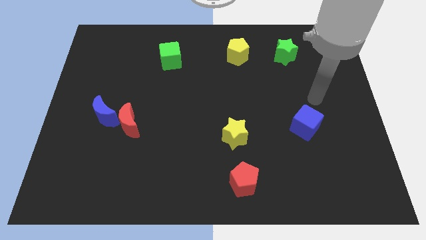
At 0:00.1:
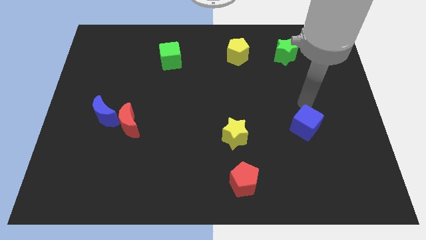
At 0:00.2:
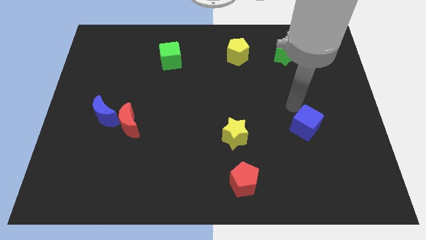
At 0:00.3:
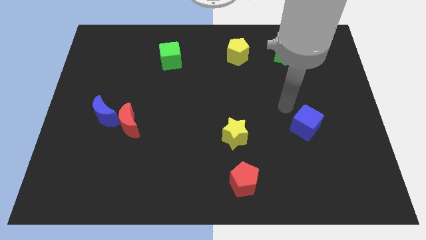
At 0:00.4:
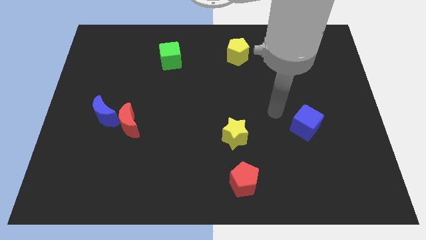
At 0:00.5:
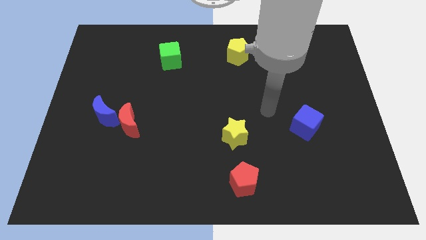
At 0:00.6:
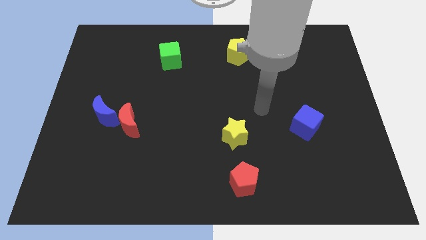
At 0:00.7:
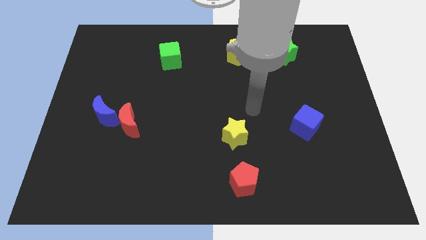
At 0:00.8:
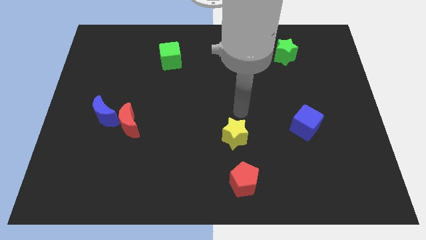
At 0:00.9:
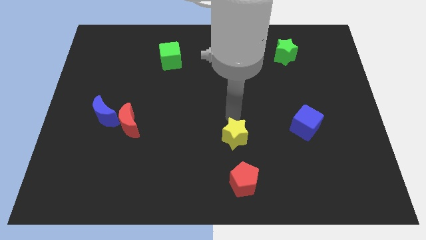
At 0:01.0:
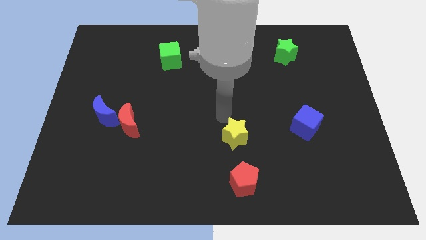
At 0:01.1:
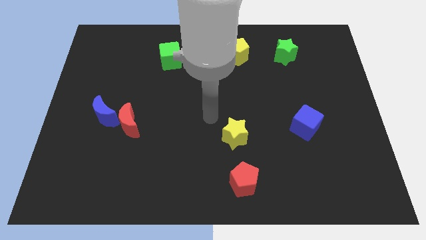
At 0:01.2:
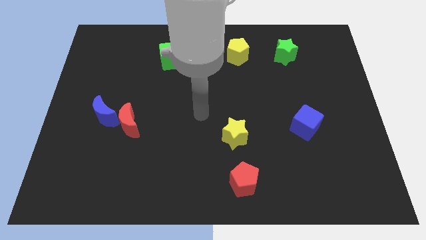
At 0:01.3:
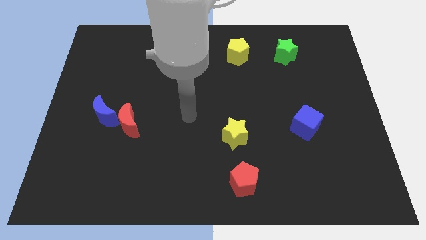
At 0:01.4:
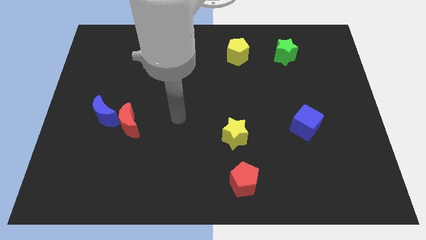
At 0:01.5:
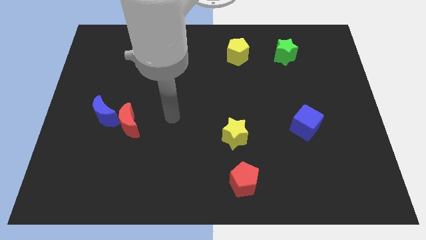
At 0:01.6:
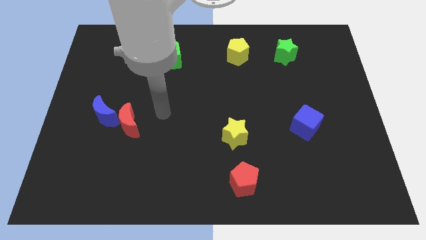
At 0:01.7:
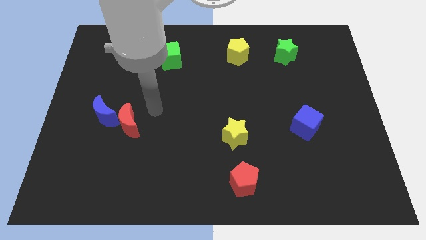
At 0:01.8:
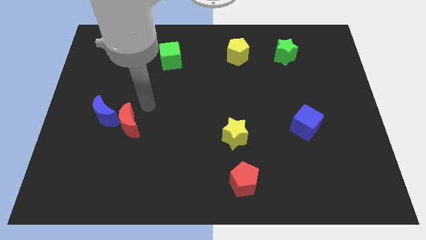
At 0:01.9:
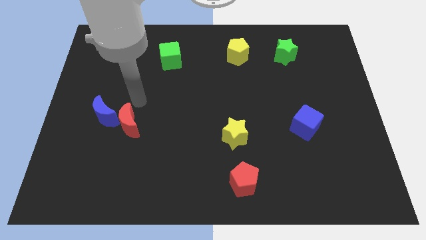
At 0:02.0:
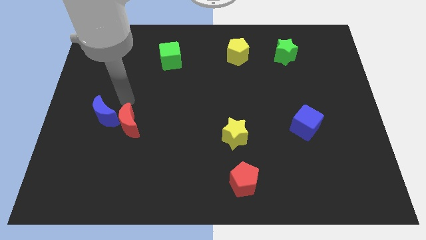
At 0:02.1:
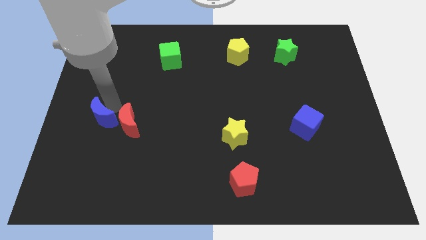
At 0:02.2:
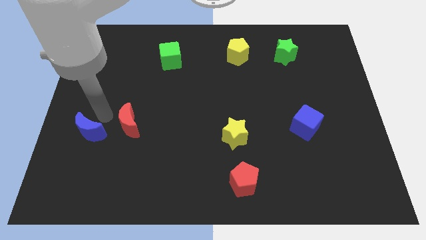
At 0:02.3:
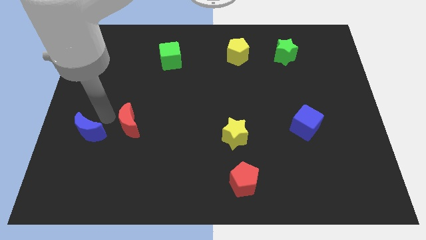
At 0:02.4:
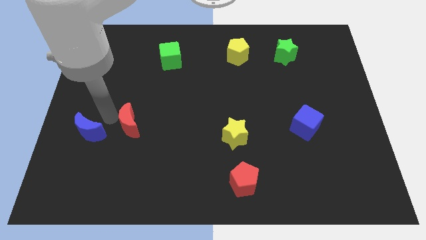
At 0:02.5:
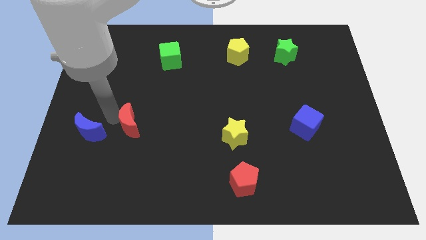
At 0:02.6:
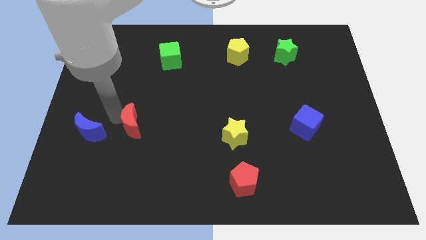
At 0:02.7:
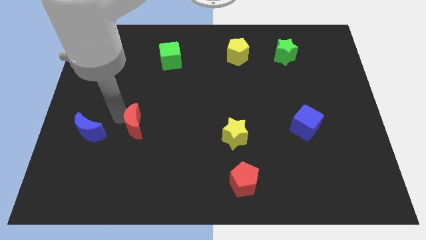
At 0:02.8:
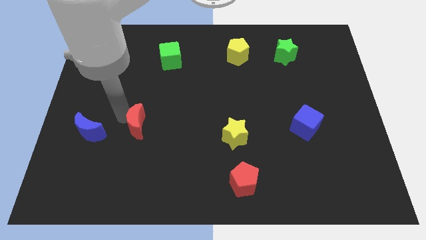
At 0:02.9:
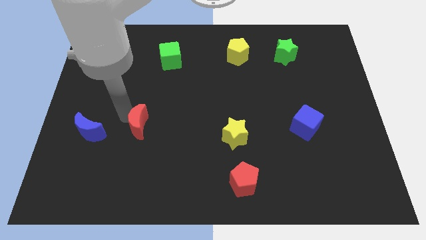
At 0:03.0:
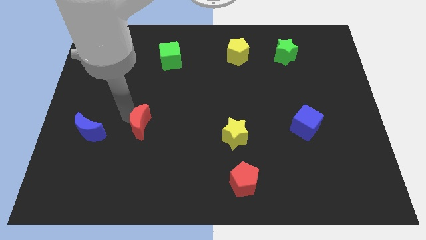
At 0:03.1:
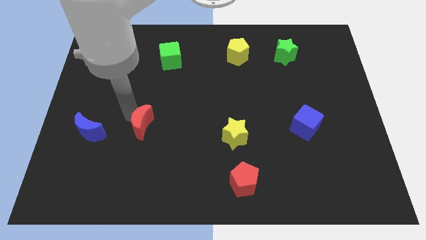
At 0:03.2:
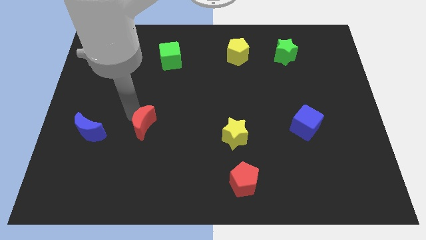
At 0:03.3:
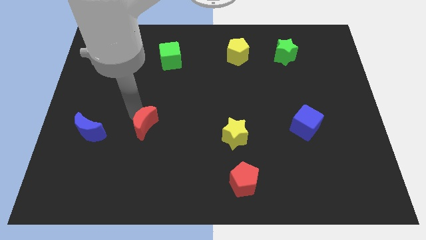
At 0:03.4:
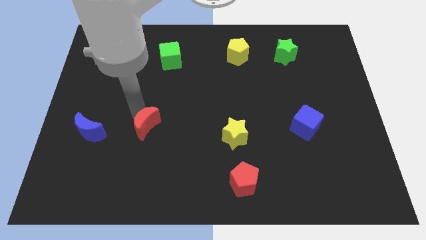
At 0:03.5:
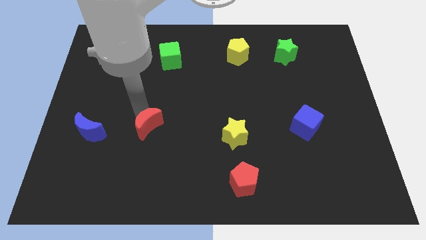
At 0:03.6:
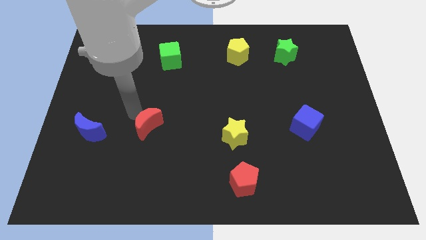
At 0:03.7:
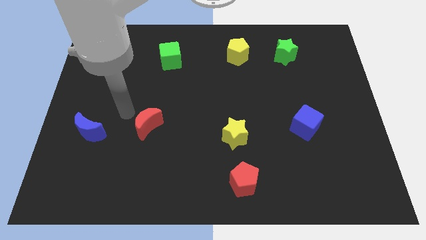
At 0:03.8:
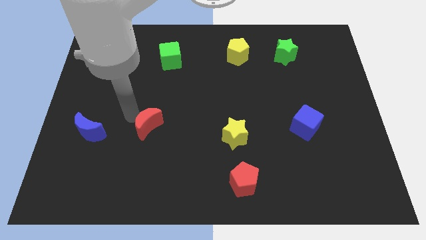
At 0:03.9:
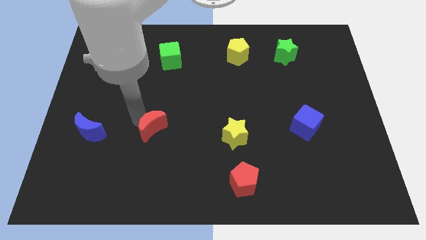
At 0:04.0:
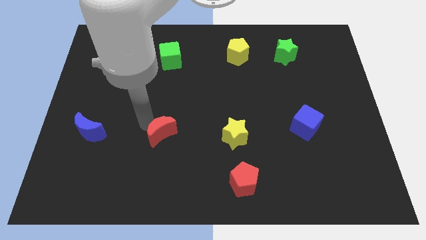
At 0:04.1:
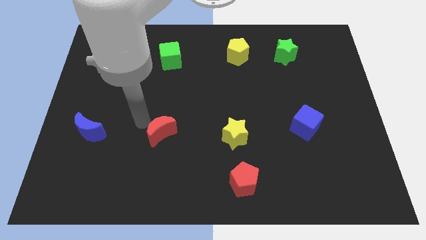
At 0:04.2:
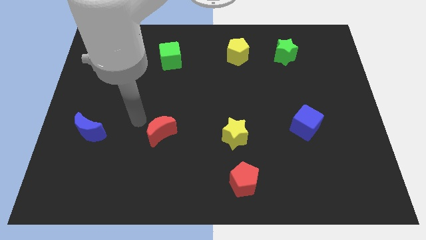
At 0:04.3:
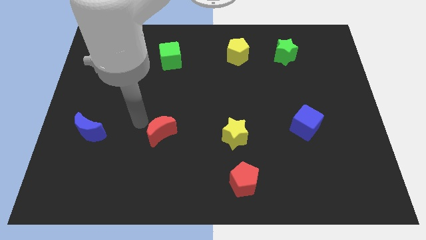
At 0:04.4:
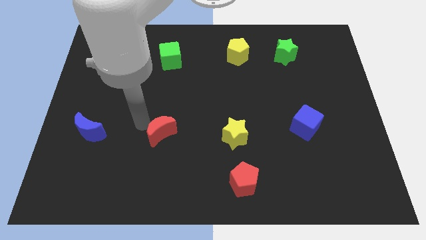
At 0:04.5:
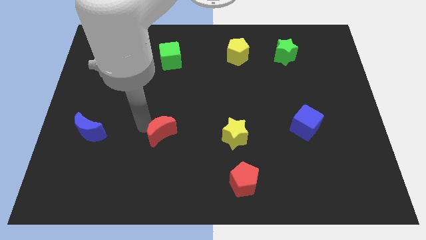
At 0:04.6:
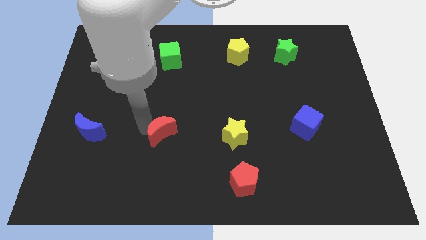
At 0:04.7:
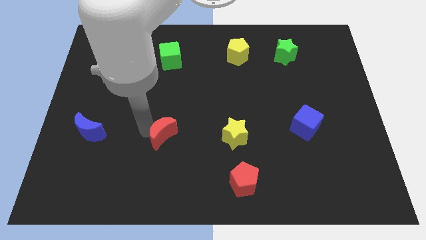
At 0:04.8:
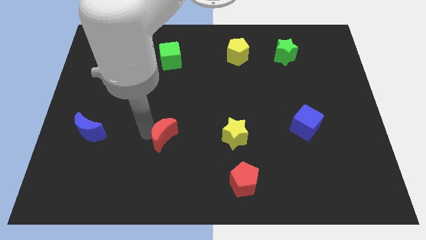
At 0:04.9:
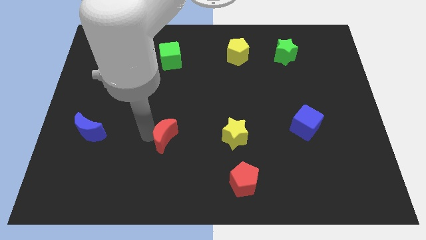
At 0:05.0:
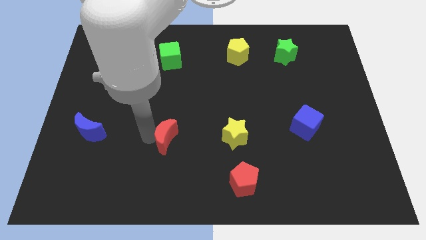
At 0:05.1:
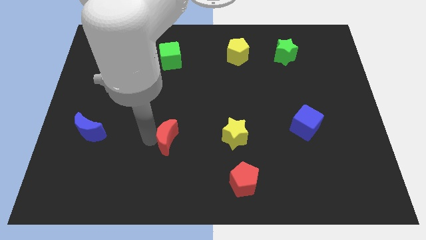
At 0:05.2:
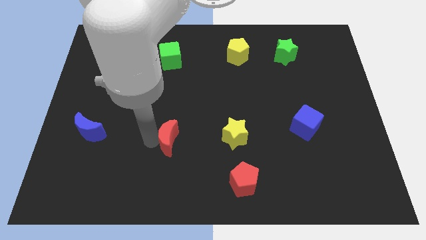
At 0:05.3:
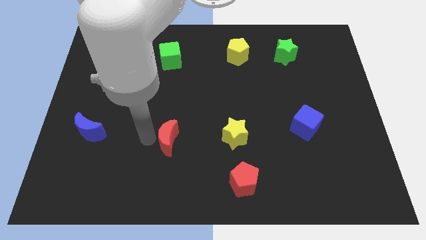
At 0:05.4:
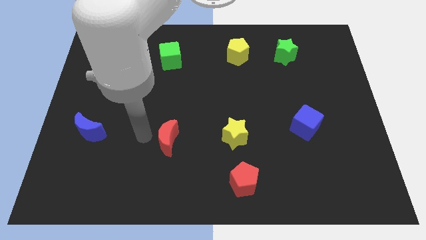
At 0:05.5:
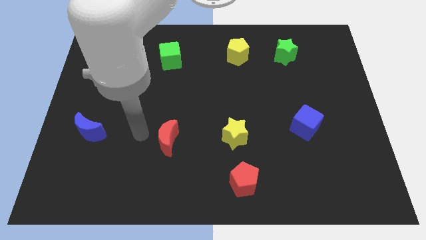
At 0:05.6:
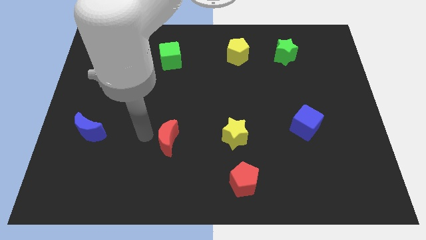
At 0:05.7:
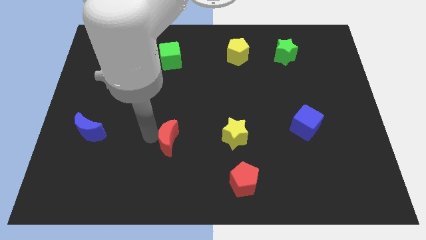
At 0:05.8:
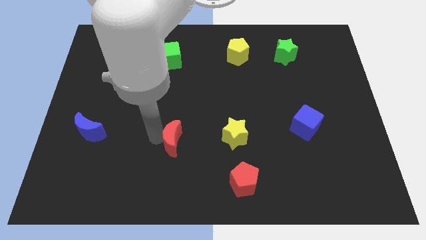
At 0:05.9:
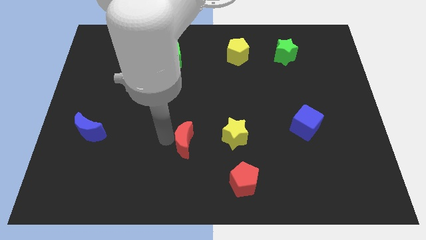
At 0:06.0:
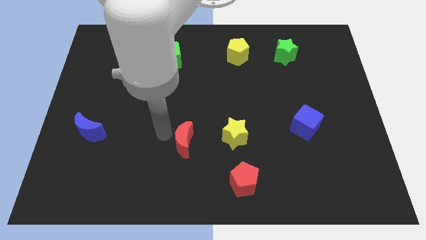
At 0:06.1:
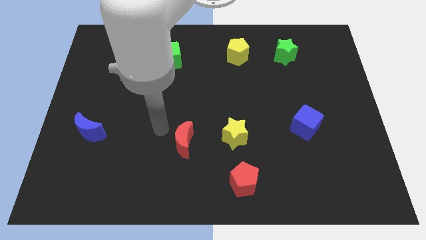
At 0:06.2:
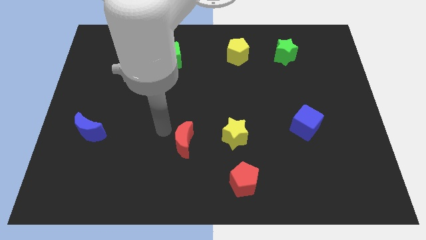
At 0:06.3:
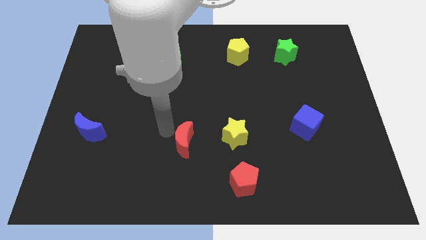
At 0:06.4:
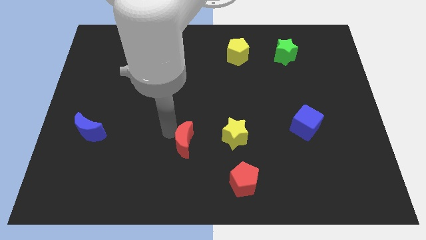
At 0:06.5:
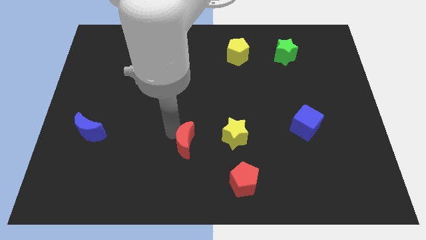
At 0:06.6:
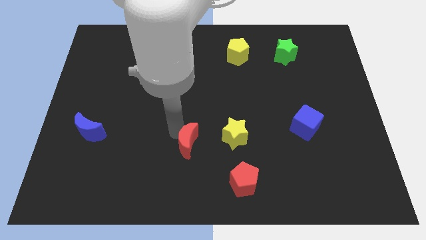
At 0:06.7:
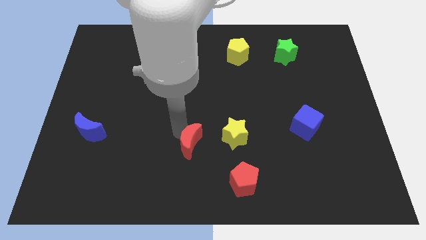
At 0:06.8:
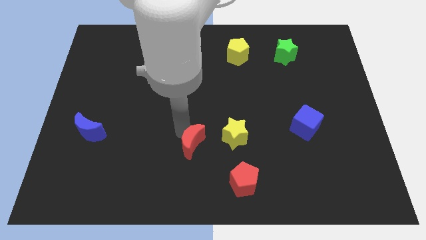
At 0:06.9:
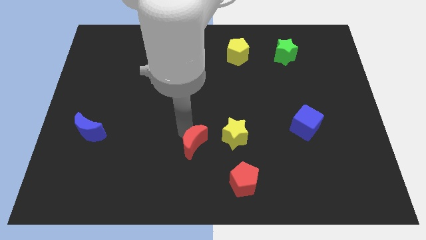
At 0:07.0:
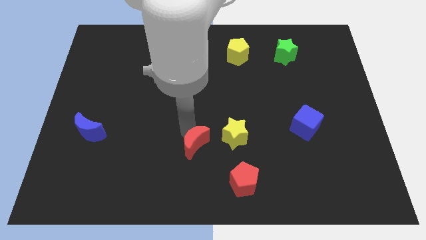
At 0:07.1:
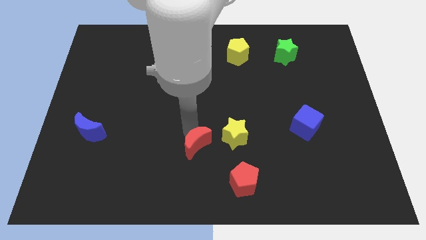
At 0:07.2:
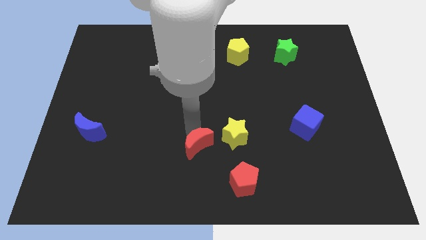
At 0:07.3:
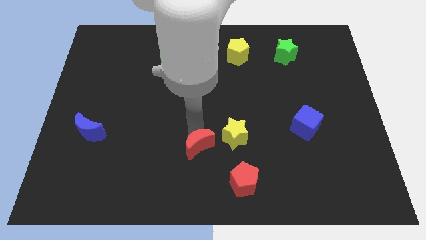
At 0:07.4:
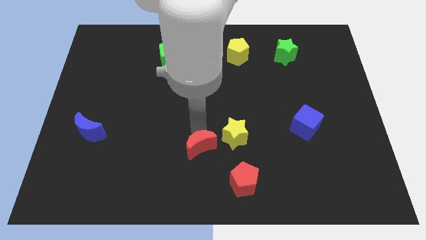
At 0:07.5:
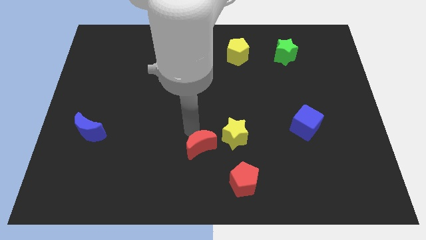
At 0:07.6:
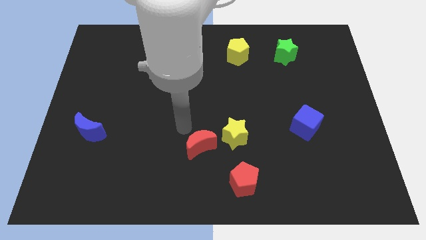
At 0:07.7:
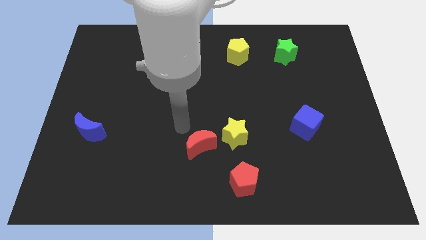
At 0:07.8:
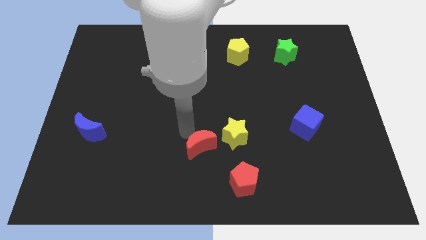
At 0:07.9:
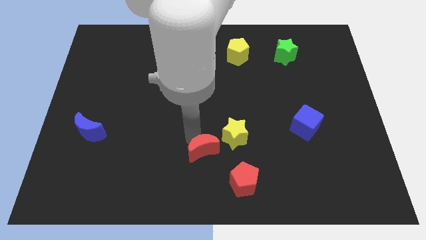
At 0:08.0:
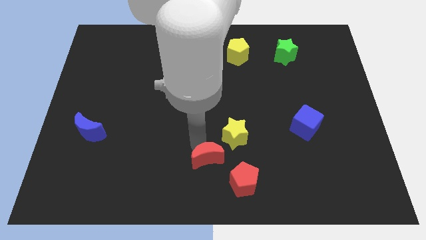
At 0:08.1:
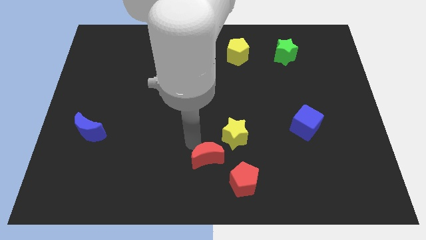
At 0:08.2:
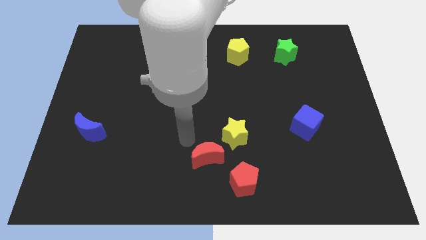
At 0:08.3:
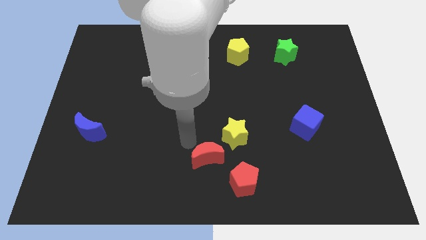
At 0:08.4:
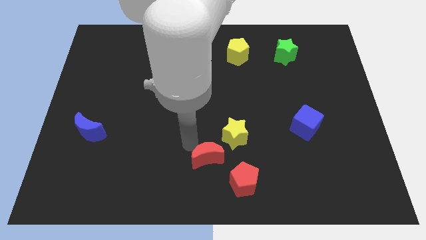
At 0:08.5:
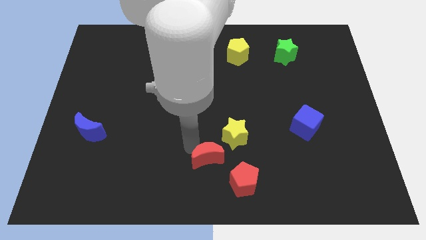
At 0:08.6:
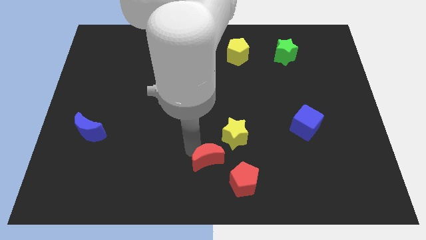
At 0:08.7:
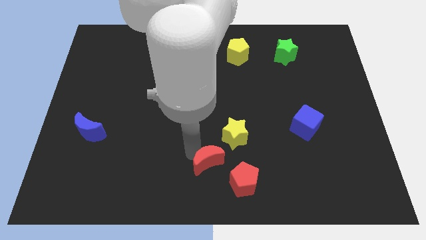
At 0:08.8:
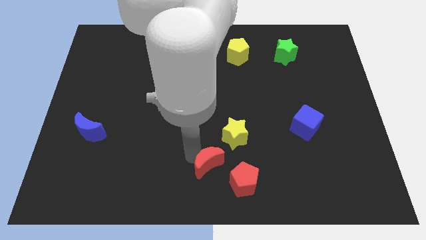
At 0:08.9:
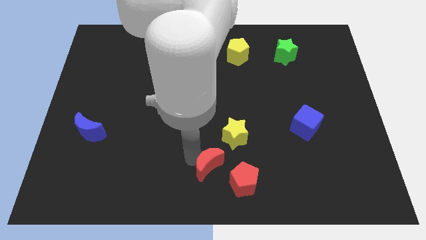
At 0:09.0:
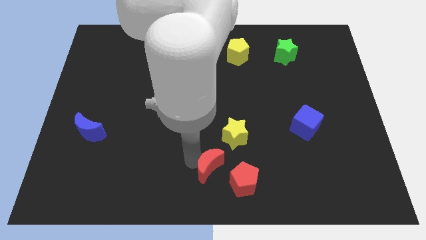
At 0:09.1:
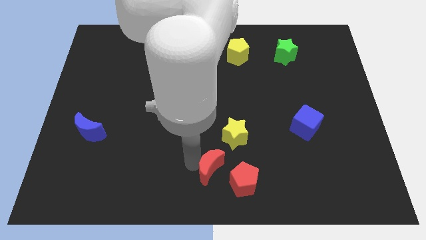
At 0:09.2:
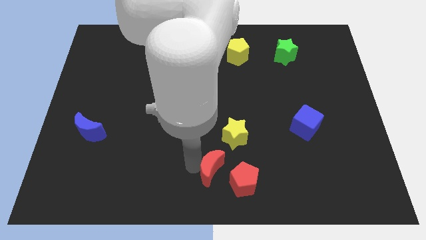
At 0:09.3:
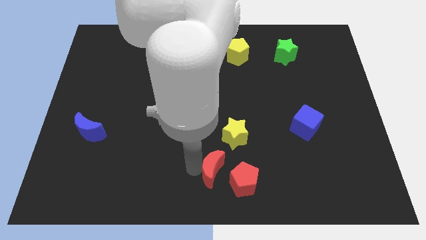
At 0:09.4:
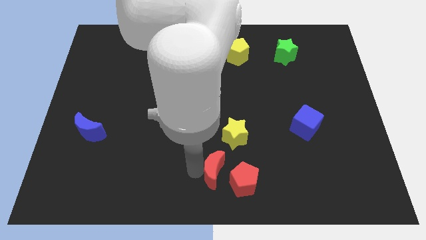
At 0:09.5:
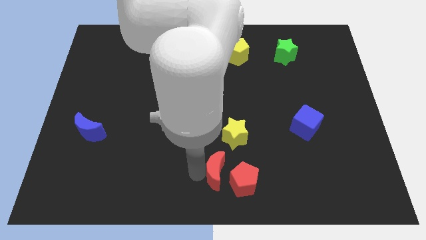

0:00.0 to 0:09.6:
slide the red moon towards the red pentagon
